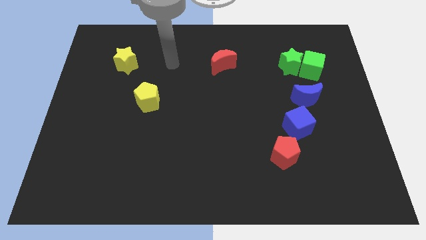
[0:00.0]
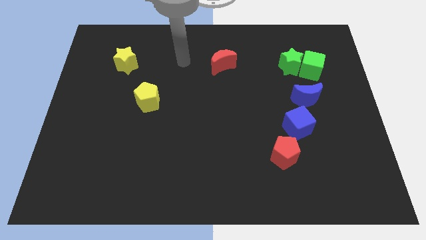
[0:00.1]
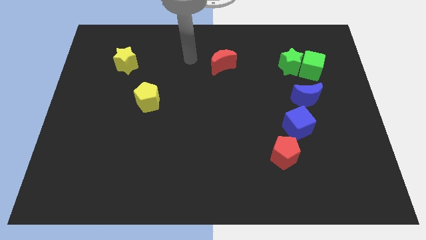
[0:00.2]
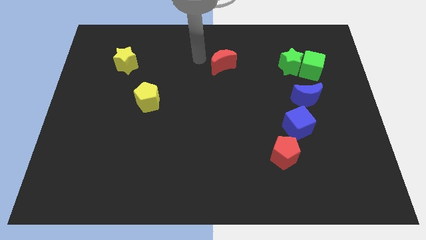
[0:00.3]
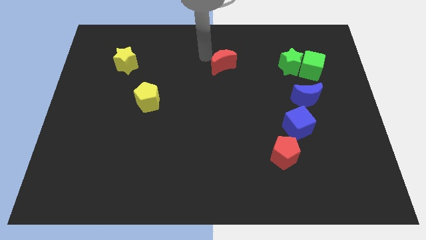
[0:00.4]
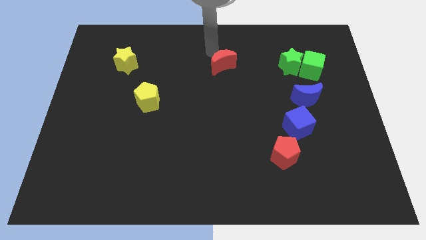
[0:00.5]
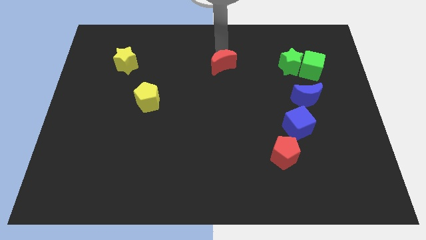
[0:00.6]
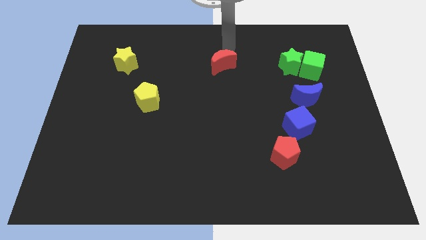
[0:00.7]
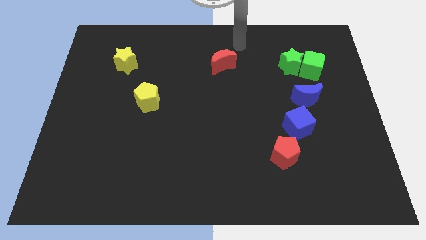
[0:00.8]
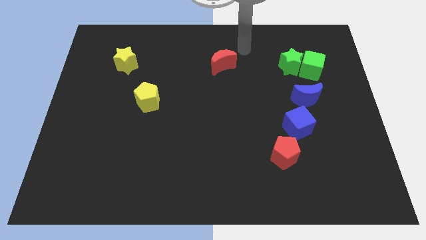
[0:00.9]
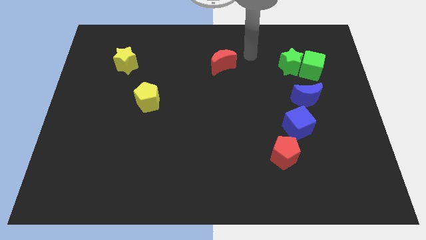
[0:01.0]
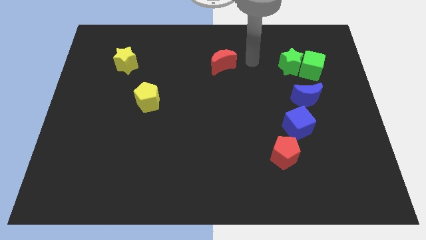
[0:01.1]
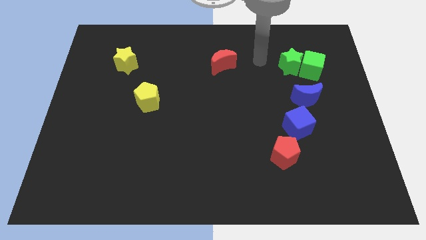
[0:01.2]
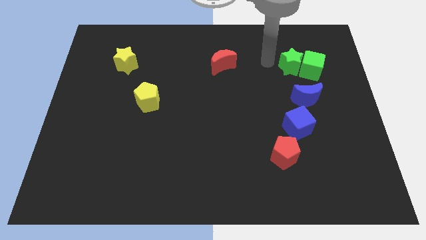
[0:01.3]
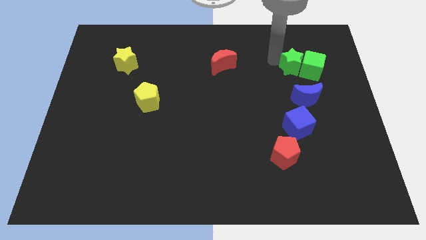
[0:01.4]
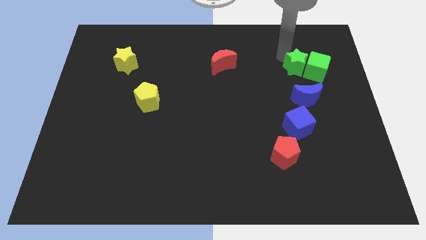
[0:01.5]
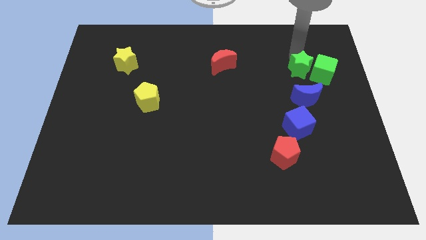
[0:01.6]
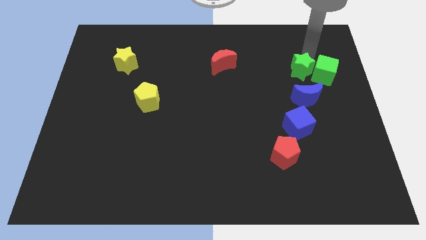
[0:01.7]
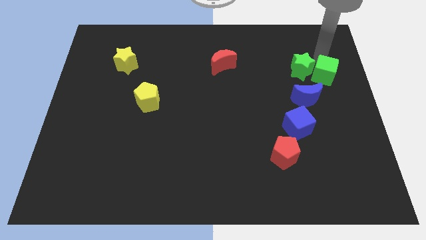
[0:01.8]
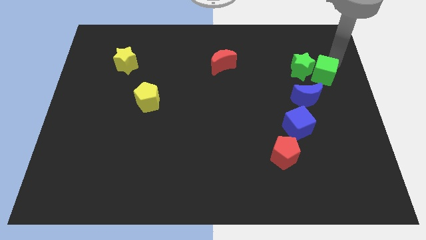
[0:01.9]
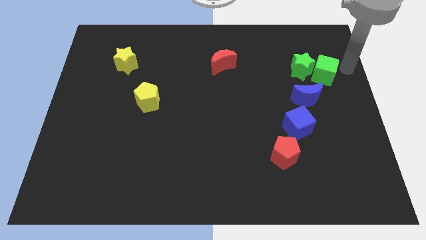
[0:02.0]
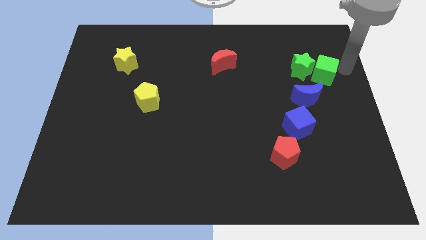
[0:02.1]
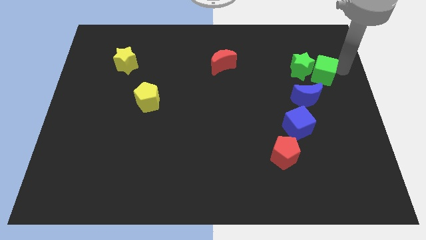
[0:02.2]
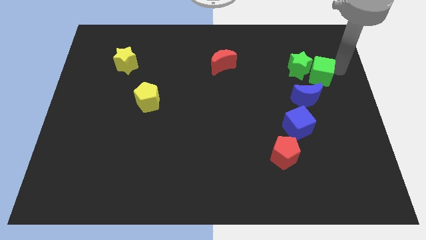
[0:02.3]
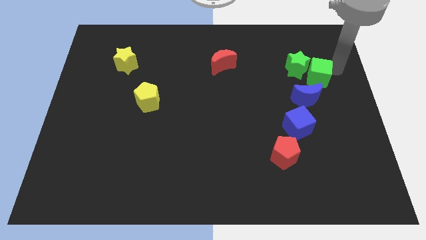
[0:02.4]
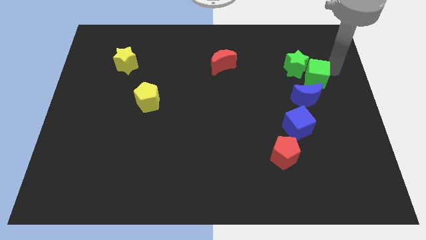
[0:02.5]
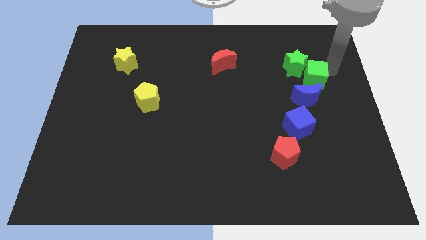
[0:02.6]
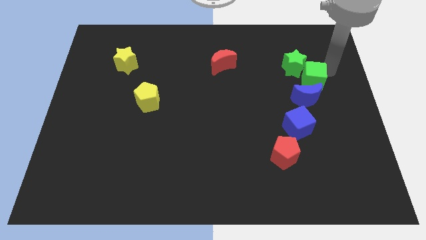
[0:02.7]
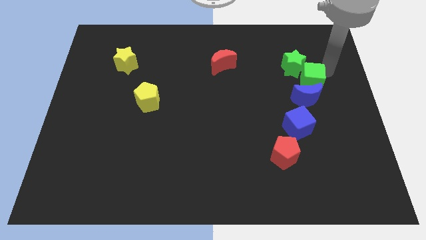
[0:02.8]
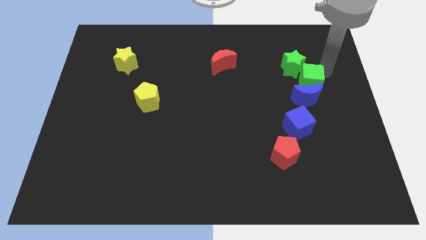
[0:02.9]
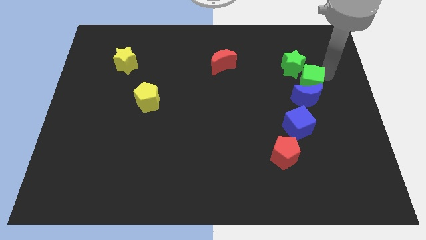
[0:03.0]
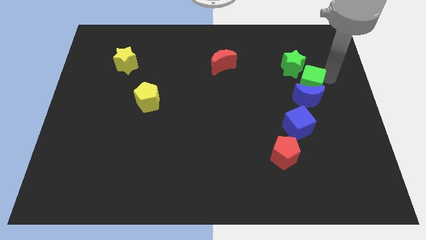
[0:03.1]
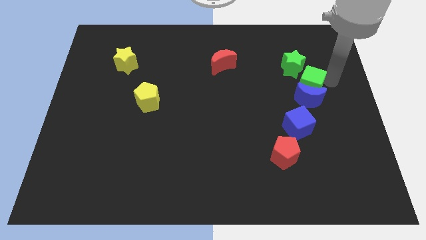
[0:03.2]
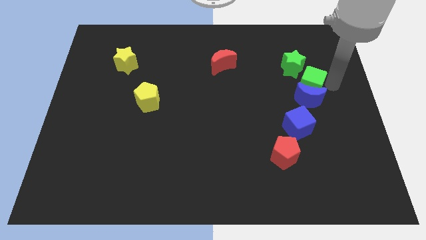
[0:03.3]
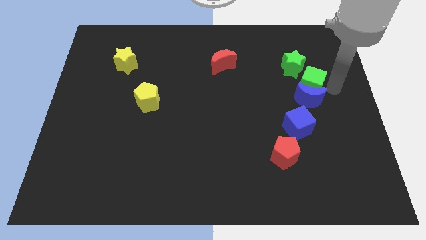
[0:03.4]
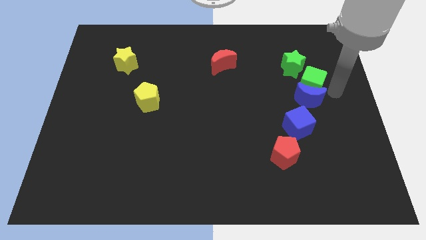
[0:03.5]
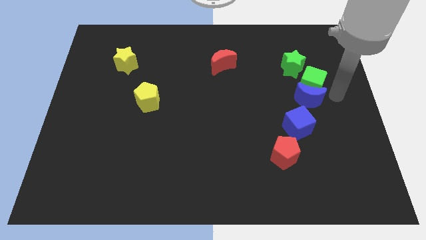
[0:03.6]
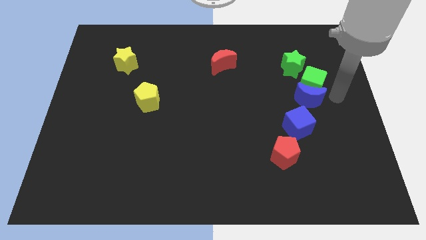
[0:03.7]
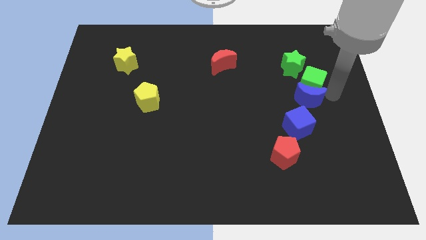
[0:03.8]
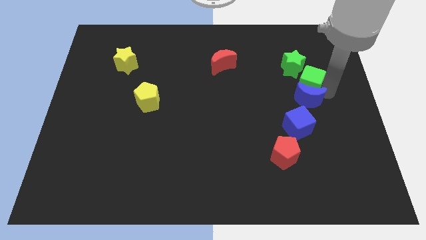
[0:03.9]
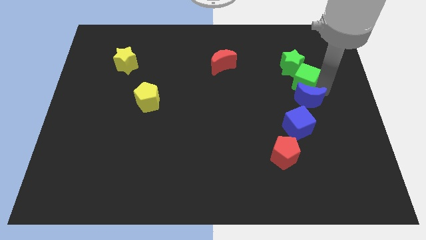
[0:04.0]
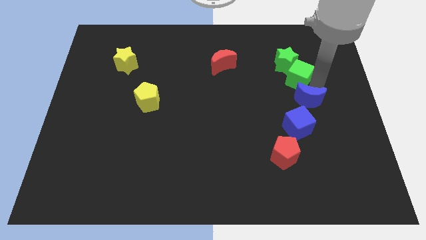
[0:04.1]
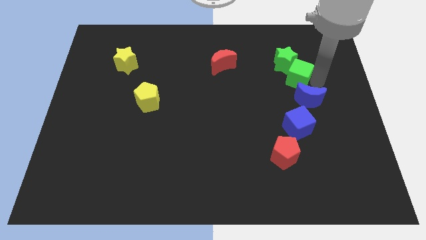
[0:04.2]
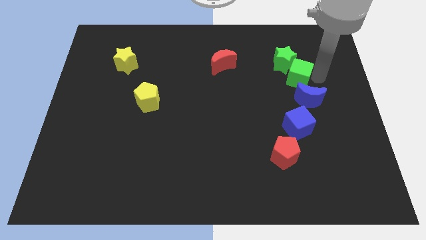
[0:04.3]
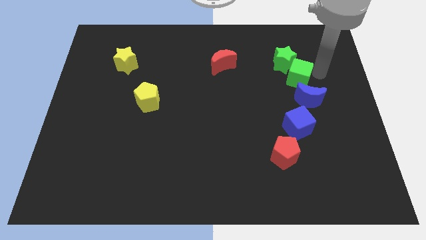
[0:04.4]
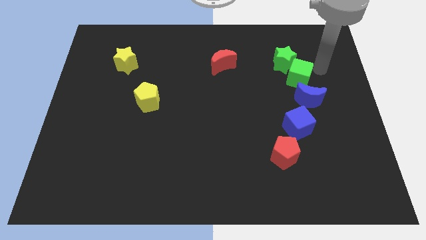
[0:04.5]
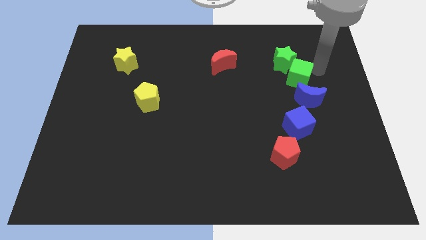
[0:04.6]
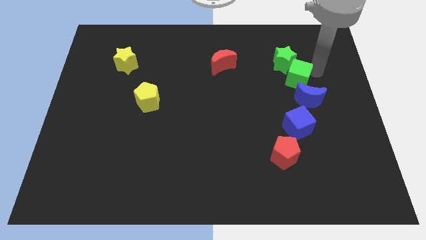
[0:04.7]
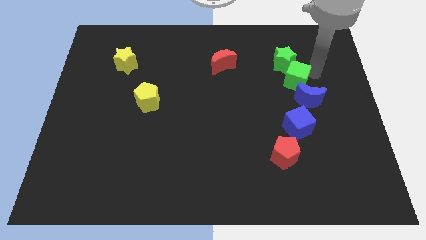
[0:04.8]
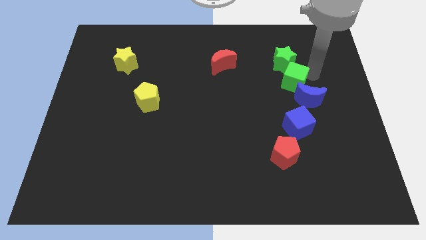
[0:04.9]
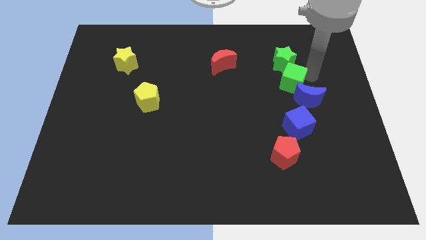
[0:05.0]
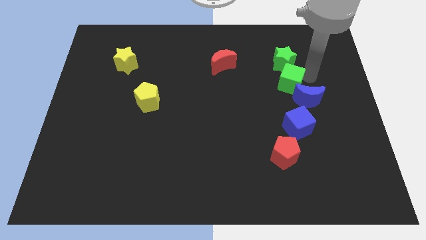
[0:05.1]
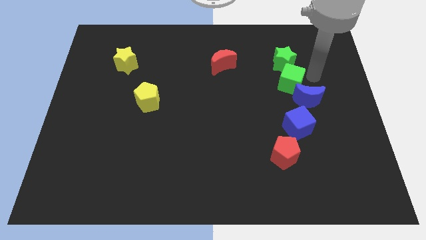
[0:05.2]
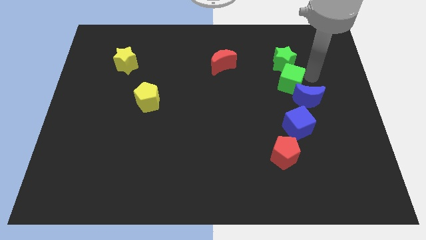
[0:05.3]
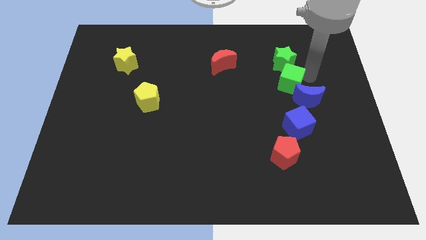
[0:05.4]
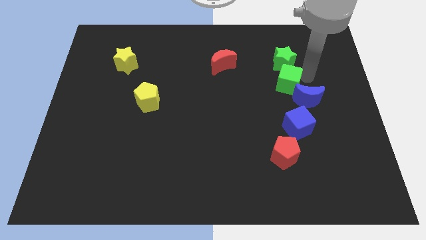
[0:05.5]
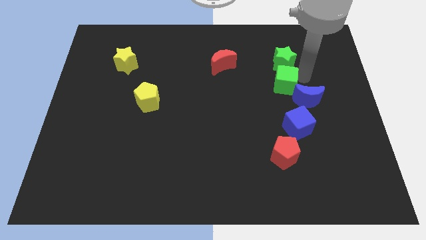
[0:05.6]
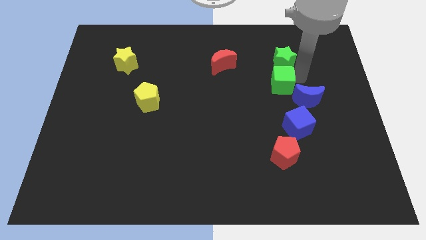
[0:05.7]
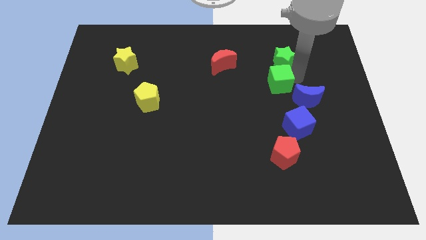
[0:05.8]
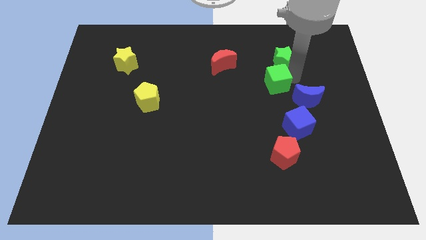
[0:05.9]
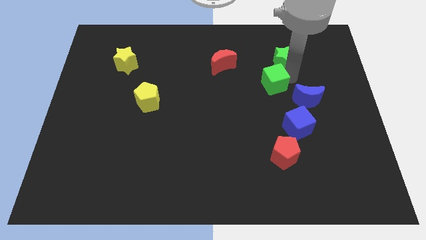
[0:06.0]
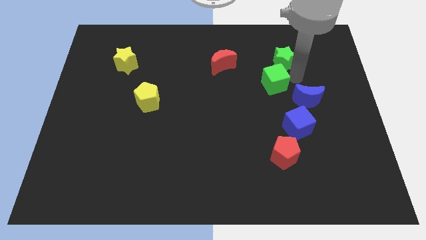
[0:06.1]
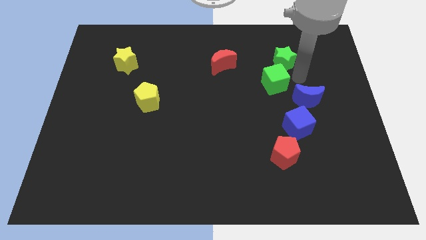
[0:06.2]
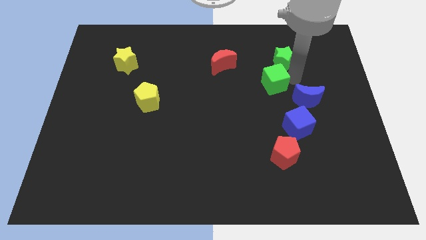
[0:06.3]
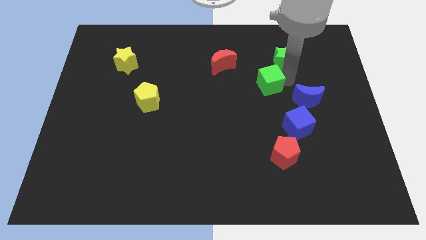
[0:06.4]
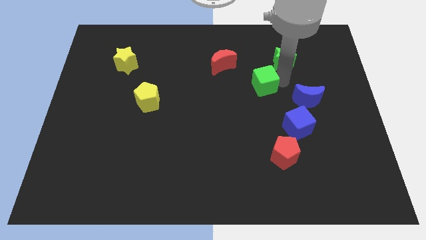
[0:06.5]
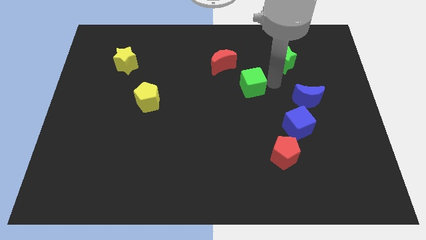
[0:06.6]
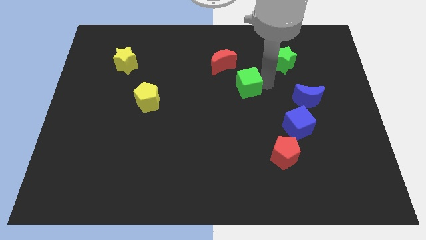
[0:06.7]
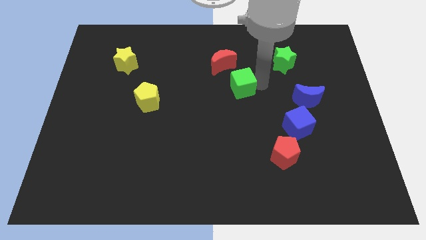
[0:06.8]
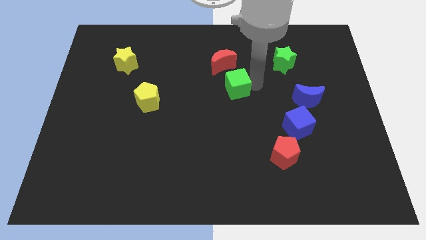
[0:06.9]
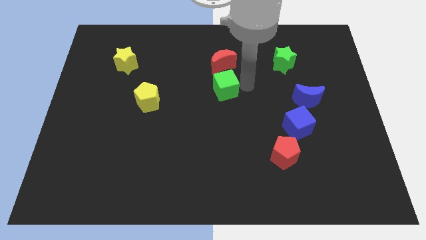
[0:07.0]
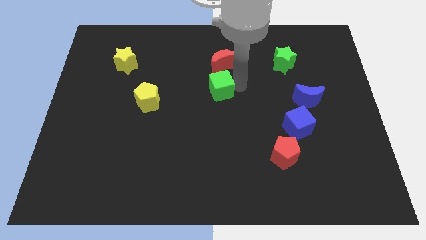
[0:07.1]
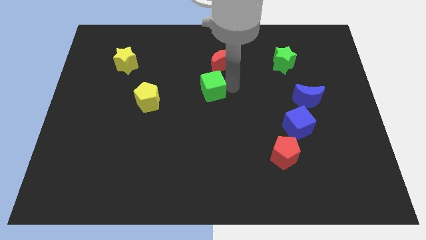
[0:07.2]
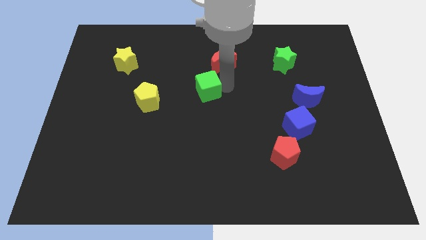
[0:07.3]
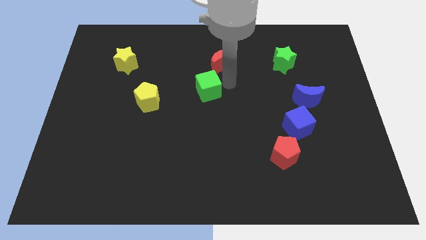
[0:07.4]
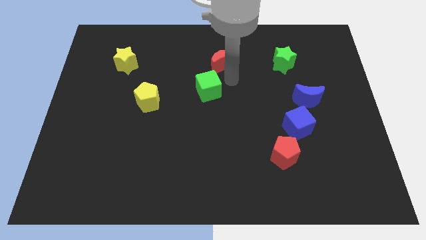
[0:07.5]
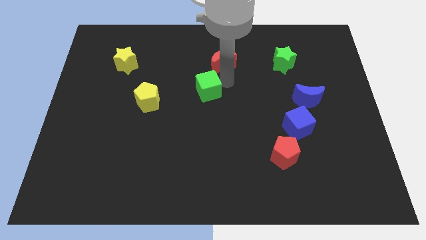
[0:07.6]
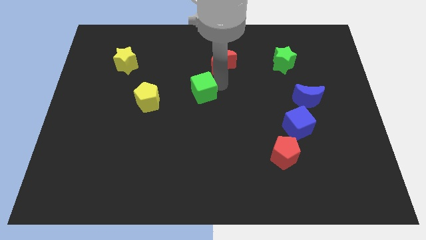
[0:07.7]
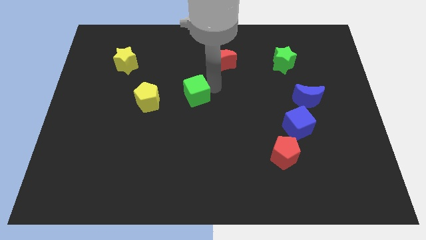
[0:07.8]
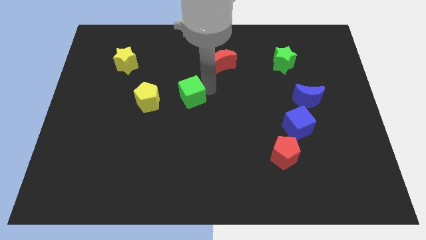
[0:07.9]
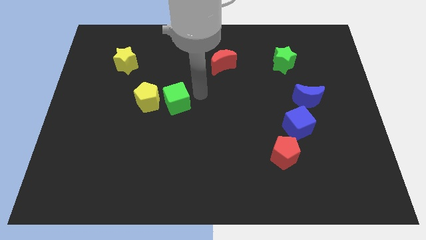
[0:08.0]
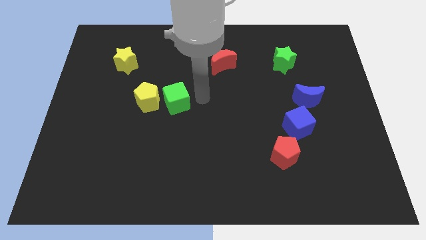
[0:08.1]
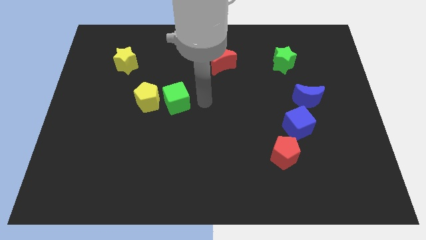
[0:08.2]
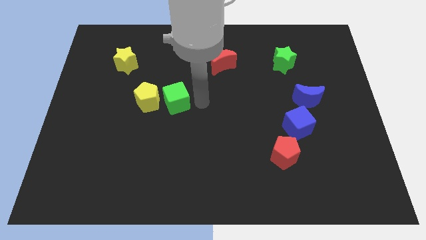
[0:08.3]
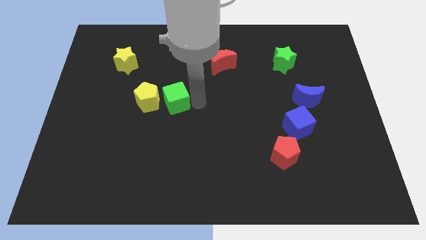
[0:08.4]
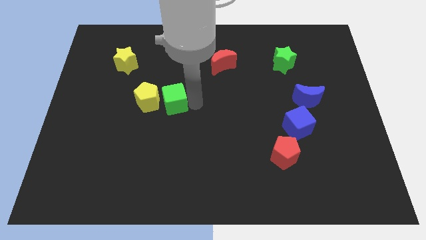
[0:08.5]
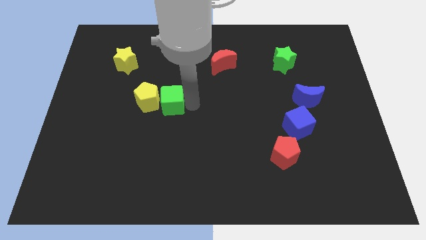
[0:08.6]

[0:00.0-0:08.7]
push the green cube towards the yellow pentagon
